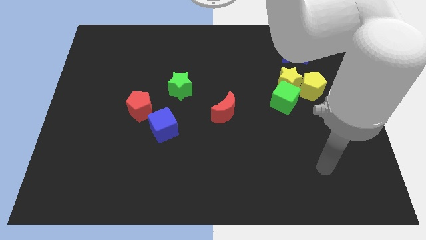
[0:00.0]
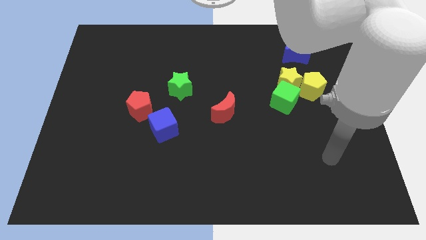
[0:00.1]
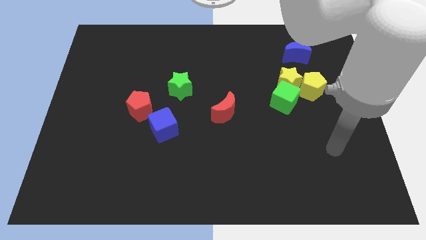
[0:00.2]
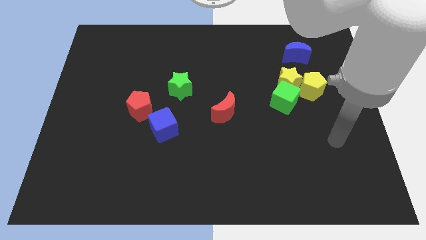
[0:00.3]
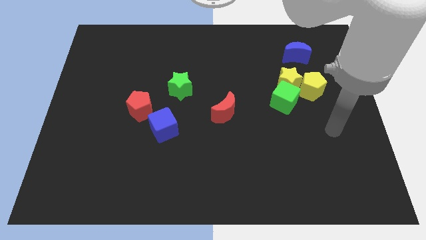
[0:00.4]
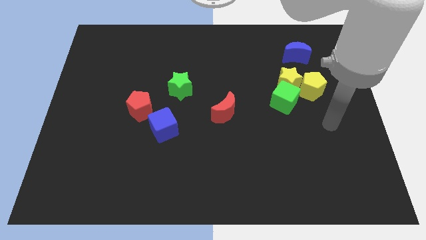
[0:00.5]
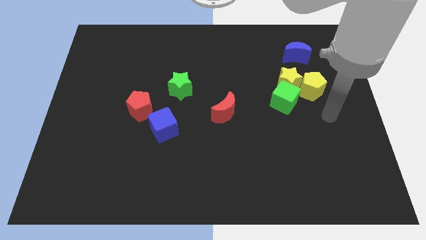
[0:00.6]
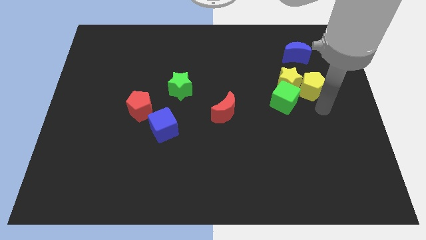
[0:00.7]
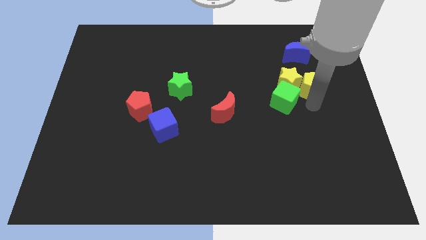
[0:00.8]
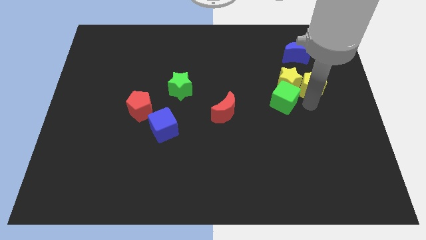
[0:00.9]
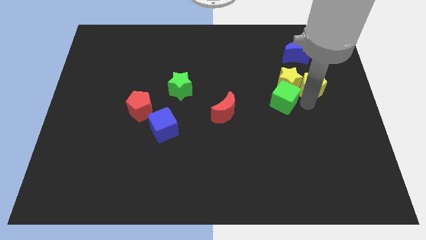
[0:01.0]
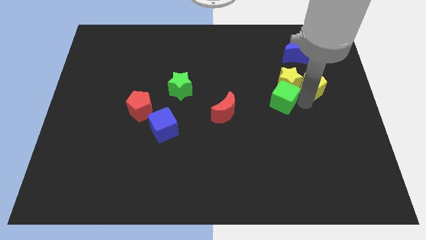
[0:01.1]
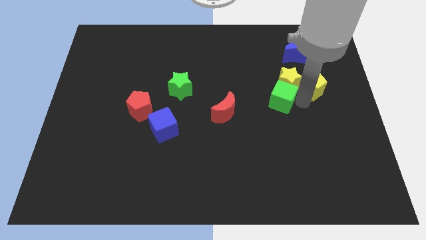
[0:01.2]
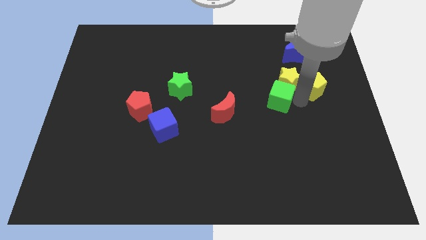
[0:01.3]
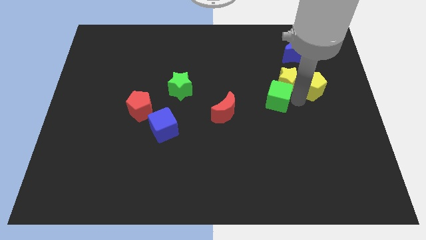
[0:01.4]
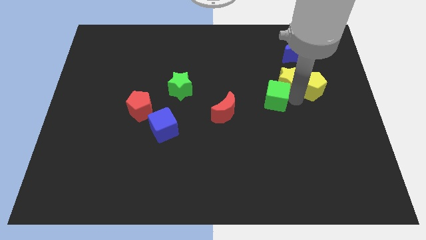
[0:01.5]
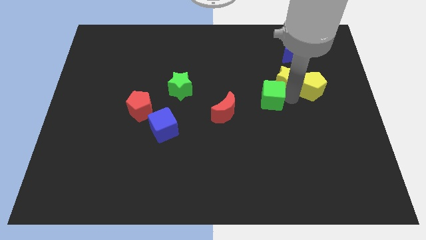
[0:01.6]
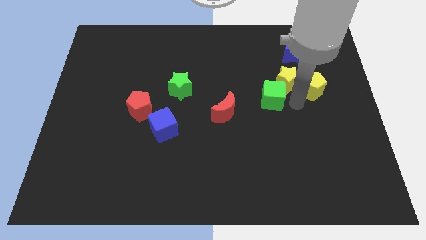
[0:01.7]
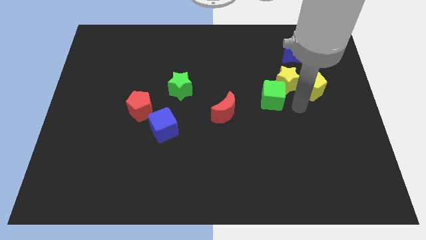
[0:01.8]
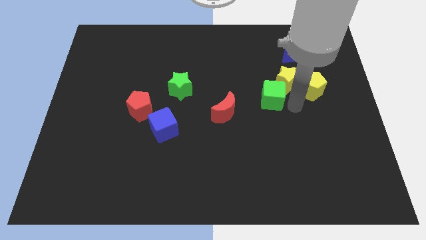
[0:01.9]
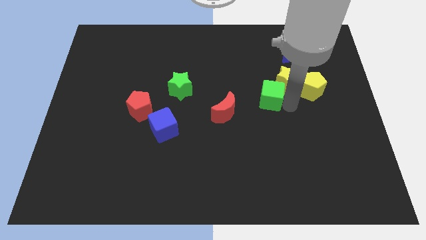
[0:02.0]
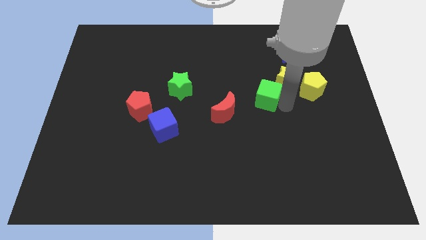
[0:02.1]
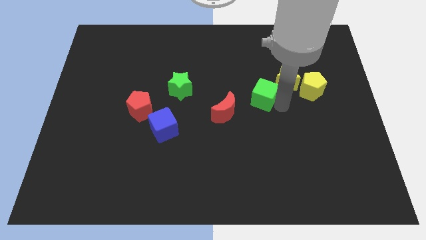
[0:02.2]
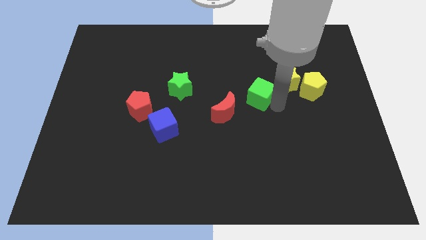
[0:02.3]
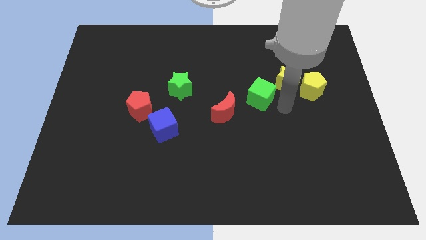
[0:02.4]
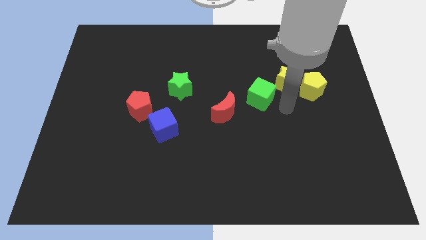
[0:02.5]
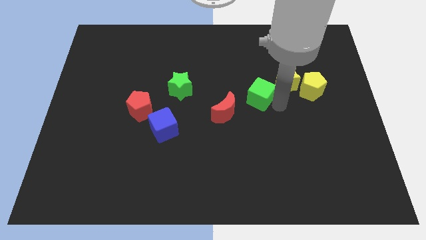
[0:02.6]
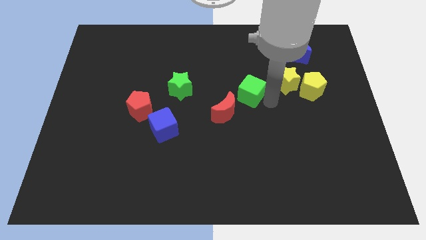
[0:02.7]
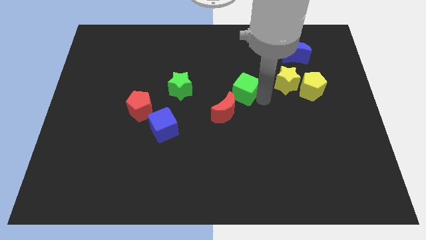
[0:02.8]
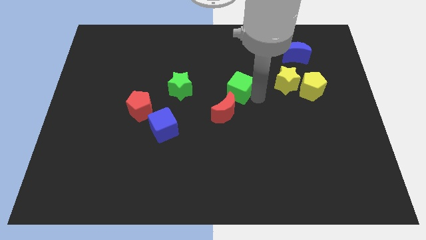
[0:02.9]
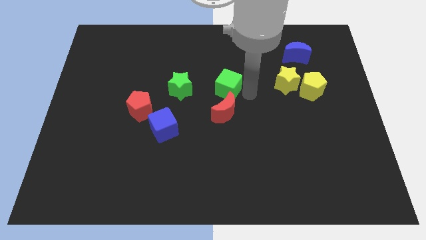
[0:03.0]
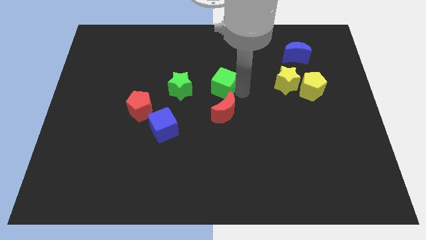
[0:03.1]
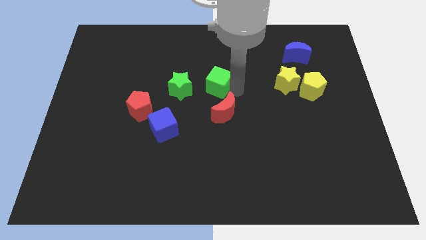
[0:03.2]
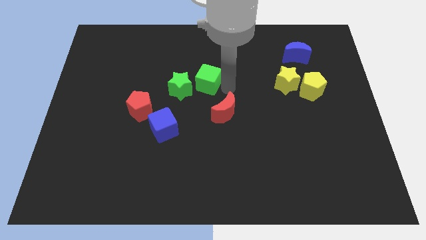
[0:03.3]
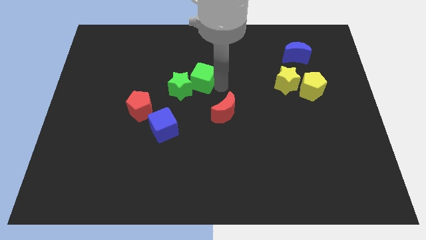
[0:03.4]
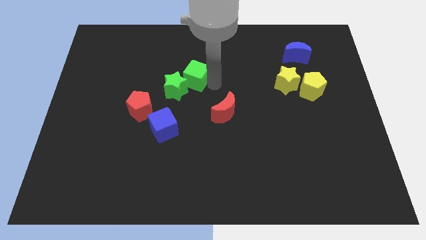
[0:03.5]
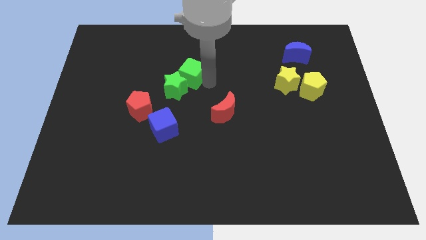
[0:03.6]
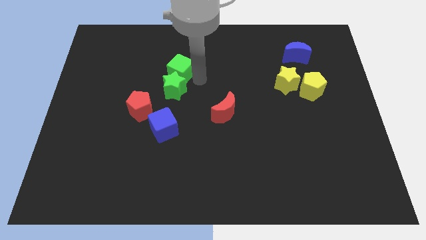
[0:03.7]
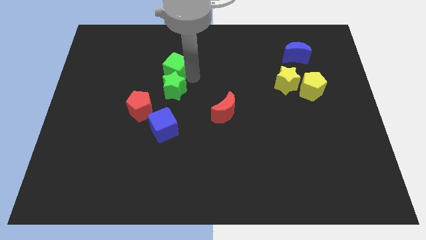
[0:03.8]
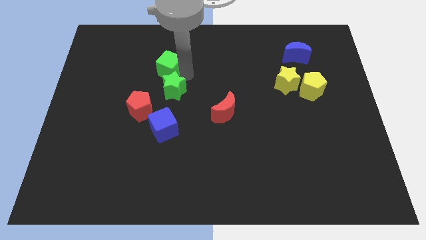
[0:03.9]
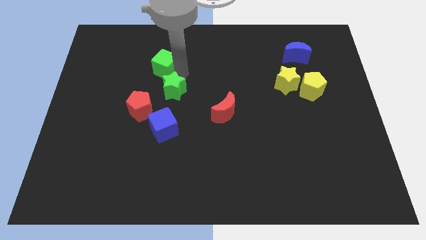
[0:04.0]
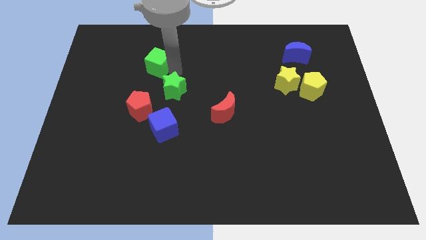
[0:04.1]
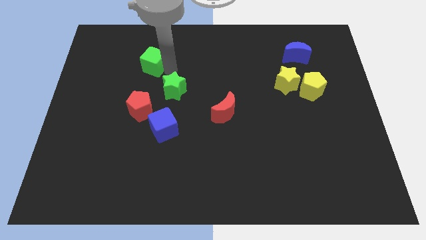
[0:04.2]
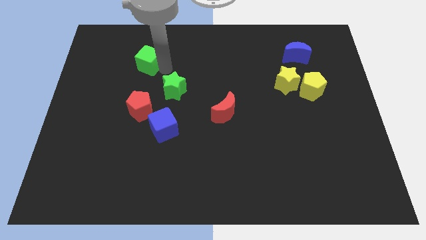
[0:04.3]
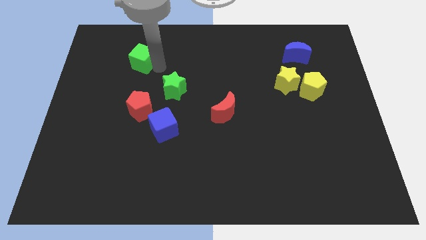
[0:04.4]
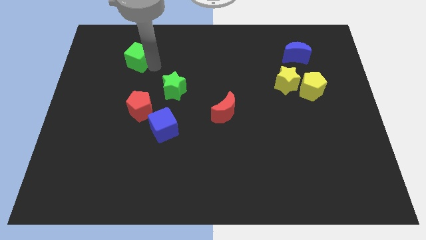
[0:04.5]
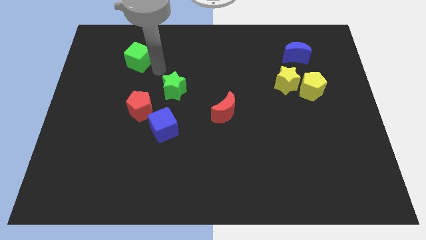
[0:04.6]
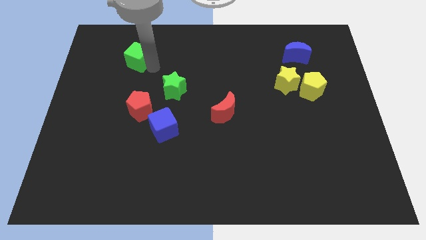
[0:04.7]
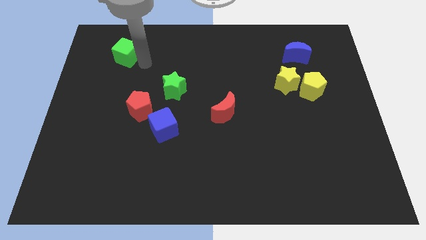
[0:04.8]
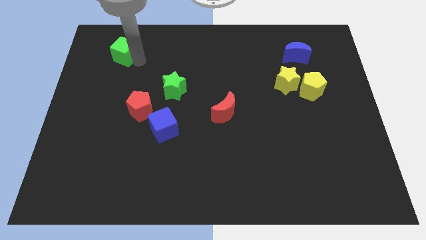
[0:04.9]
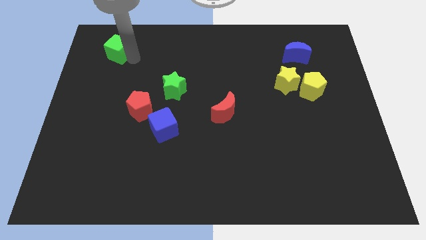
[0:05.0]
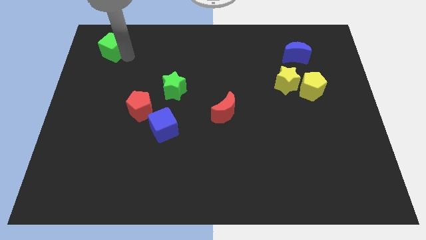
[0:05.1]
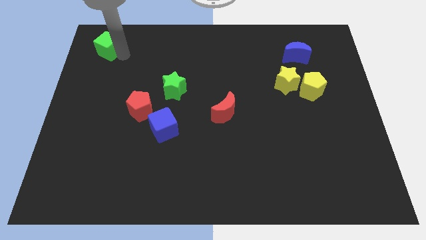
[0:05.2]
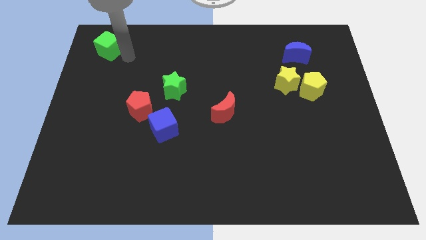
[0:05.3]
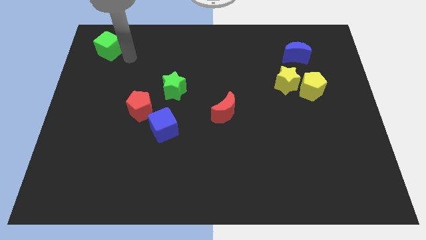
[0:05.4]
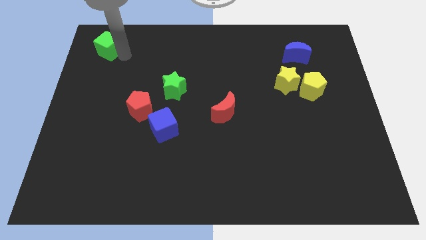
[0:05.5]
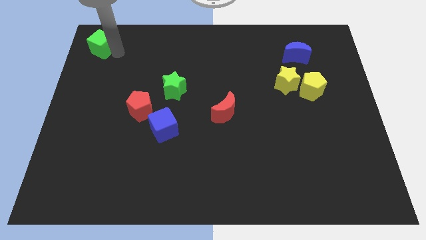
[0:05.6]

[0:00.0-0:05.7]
put the green cube to the top left

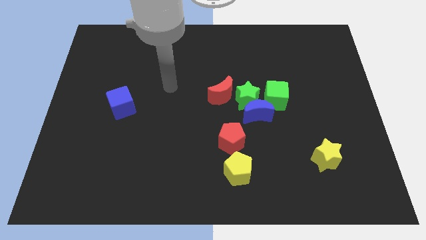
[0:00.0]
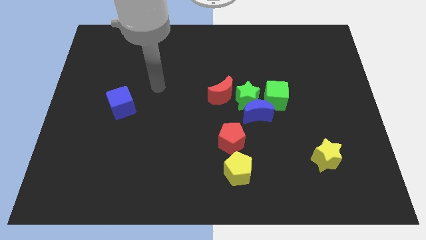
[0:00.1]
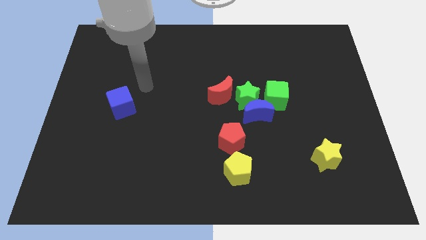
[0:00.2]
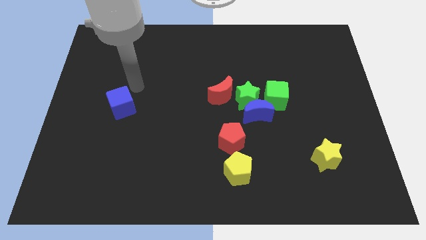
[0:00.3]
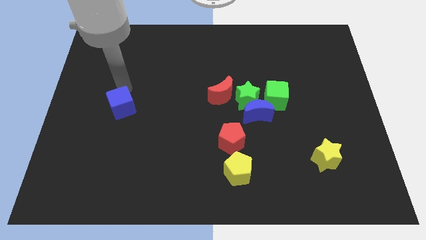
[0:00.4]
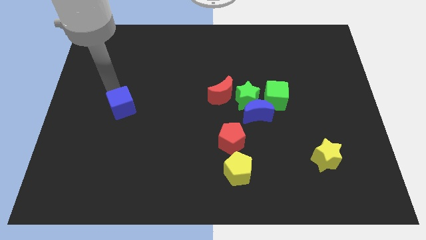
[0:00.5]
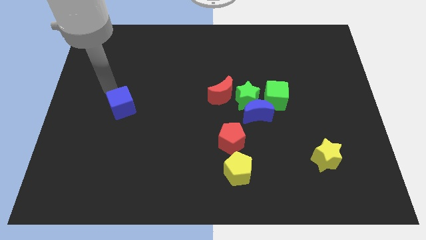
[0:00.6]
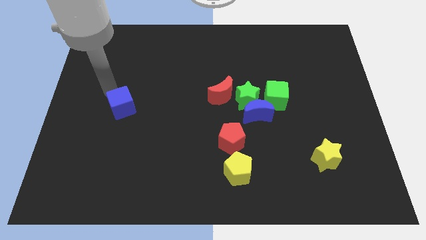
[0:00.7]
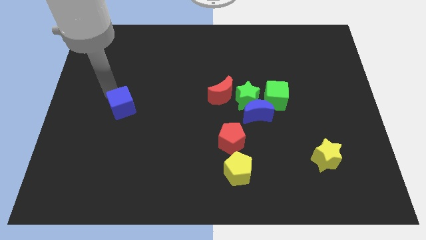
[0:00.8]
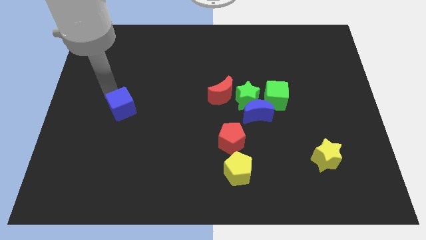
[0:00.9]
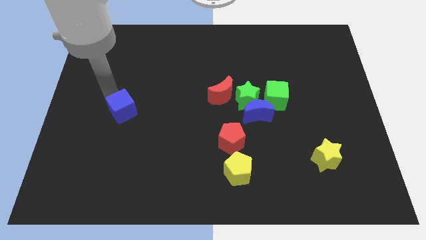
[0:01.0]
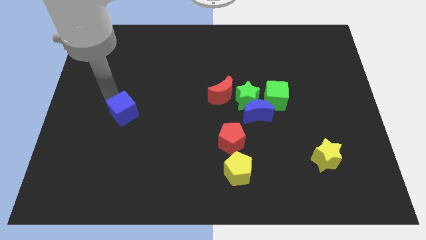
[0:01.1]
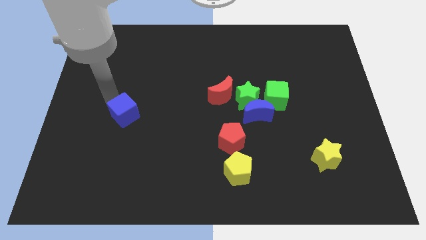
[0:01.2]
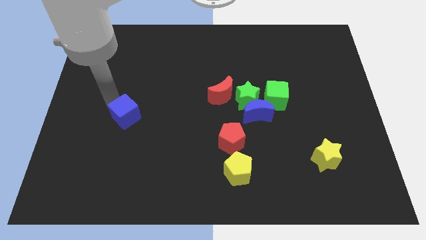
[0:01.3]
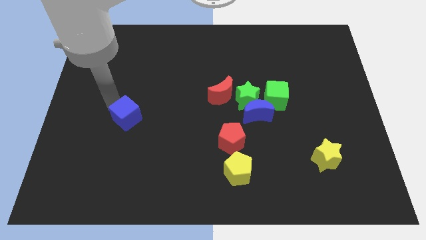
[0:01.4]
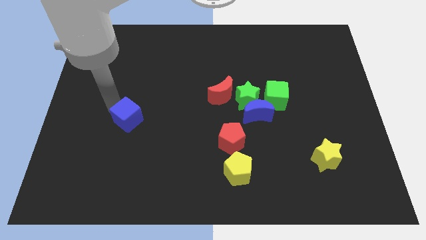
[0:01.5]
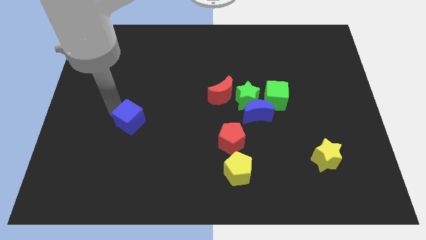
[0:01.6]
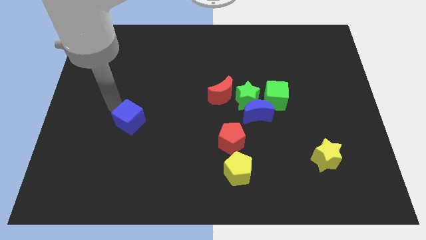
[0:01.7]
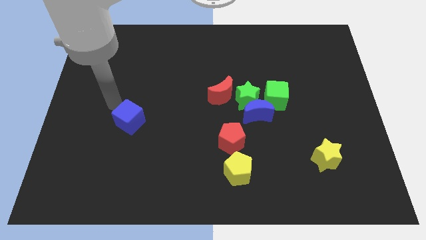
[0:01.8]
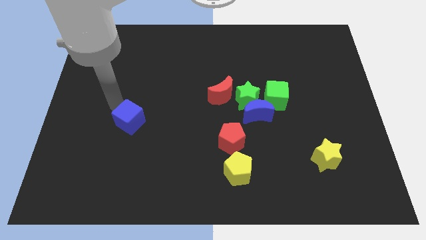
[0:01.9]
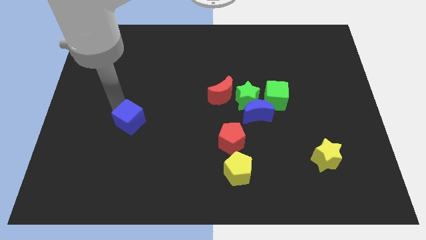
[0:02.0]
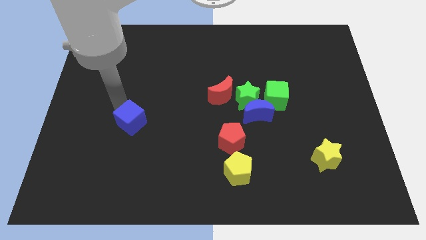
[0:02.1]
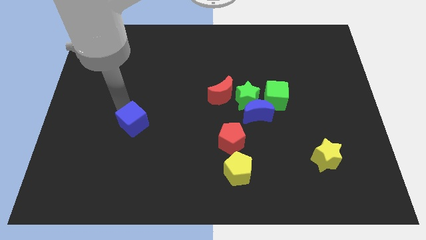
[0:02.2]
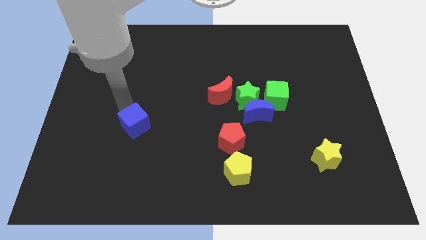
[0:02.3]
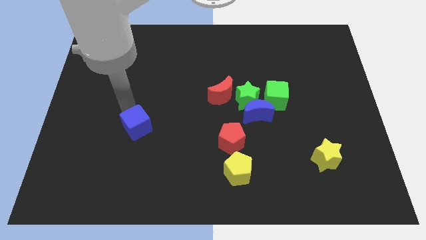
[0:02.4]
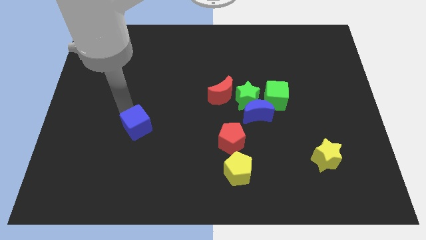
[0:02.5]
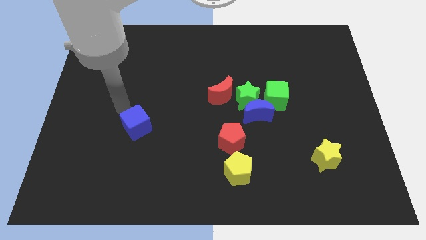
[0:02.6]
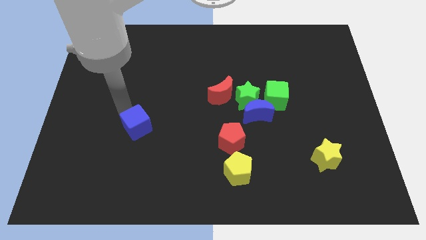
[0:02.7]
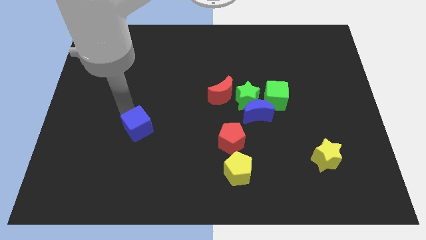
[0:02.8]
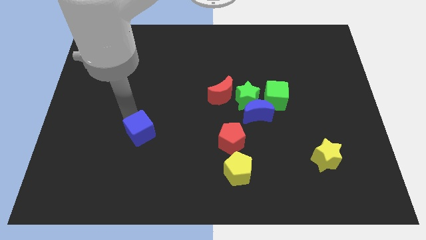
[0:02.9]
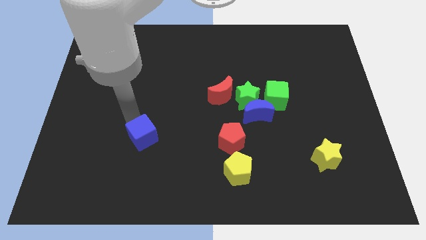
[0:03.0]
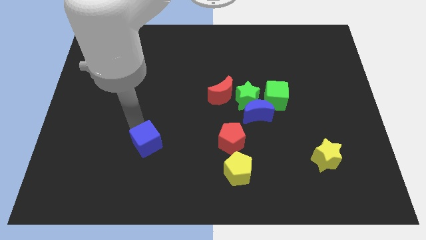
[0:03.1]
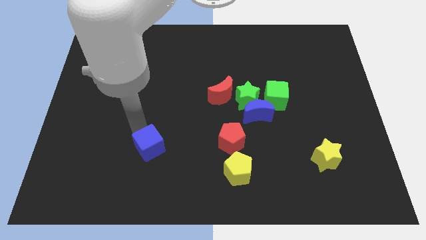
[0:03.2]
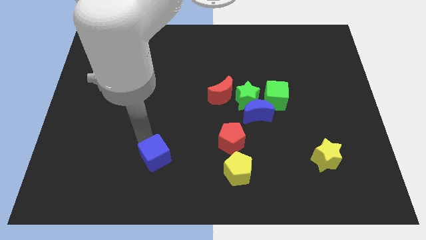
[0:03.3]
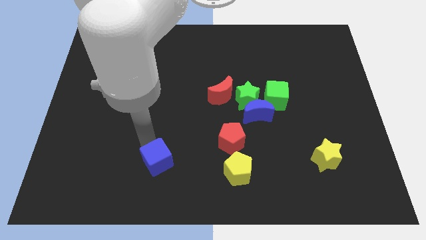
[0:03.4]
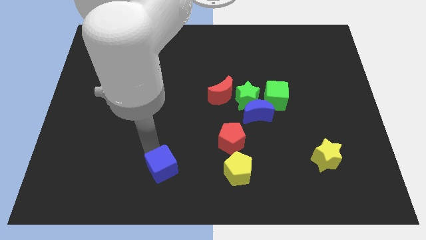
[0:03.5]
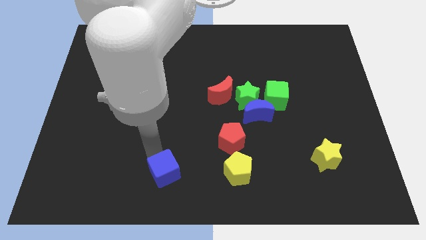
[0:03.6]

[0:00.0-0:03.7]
move the blue cube to the bottom
